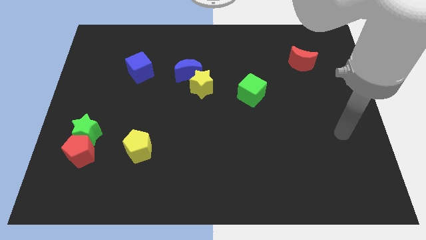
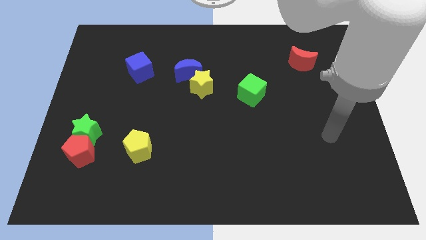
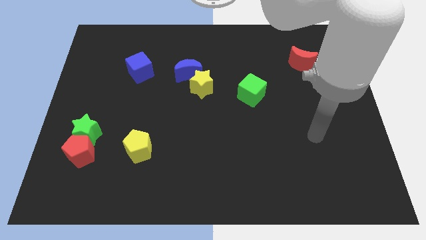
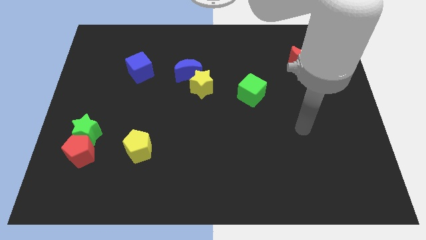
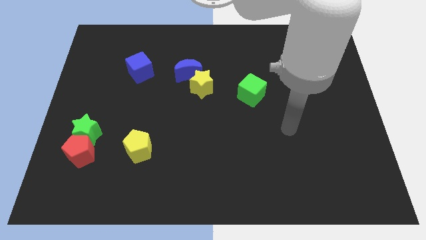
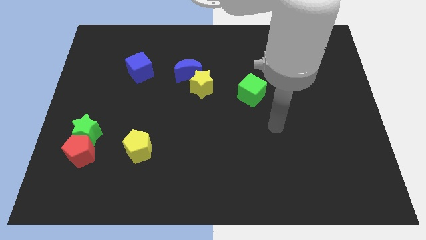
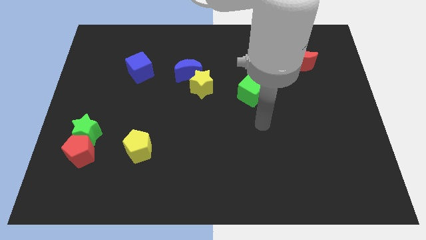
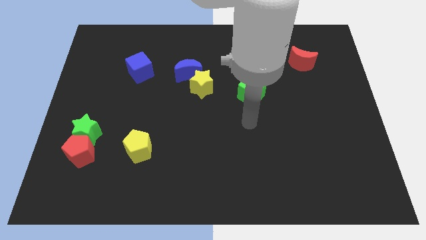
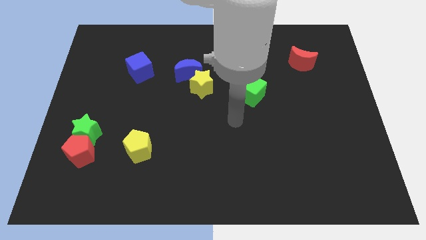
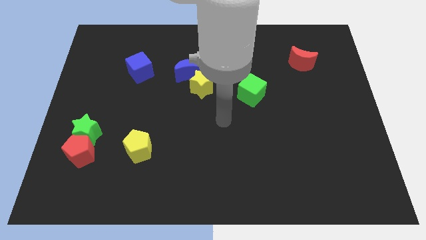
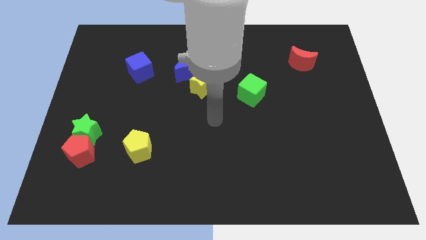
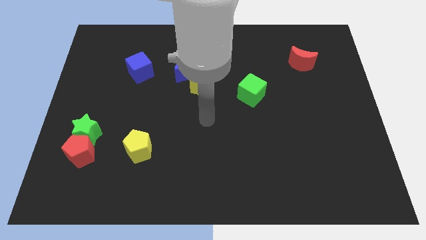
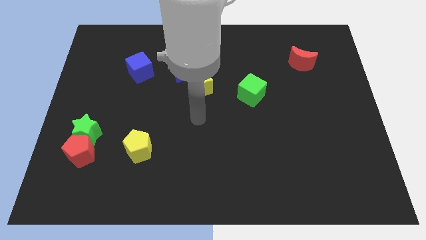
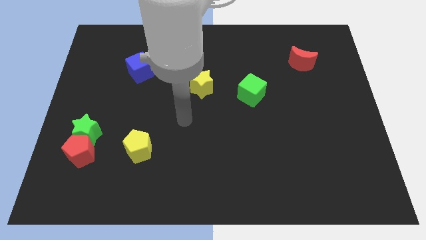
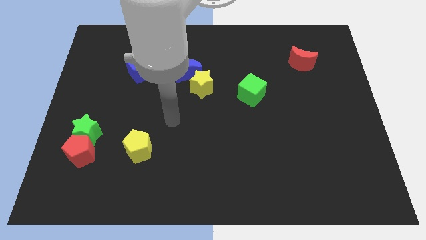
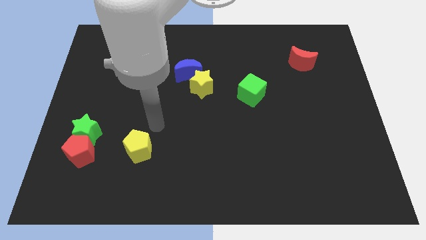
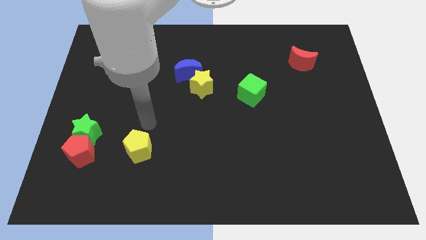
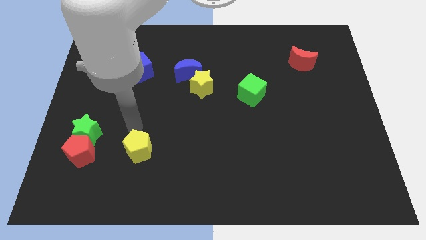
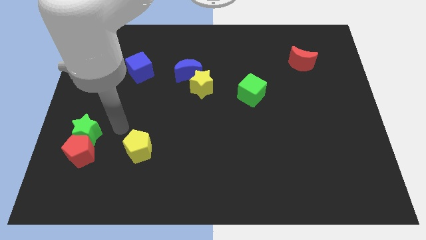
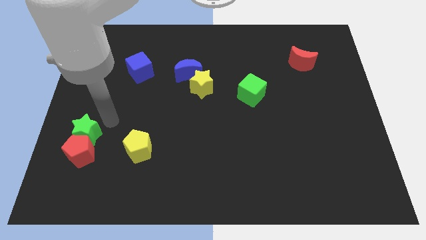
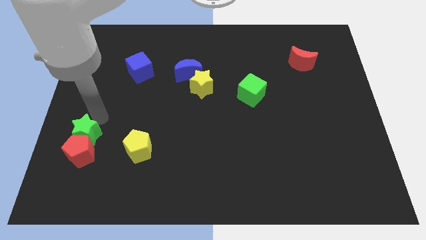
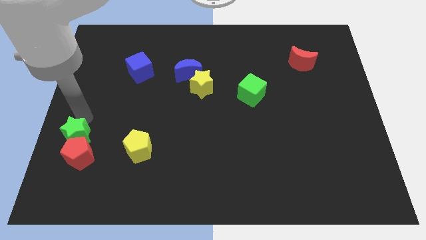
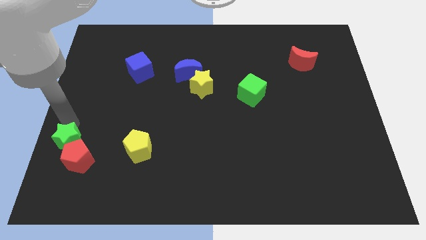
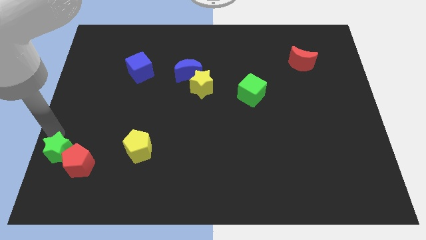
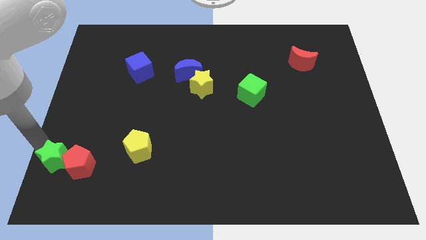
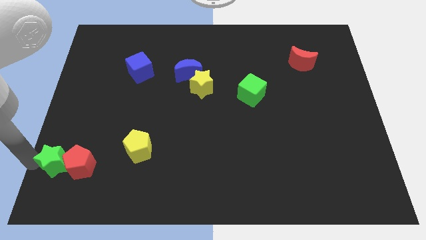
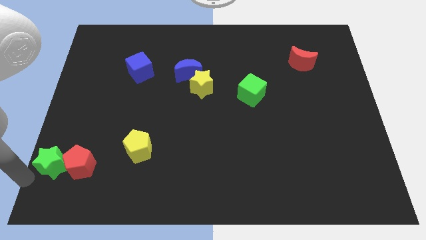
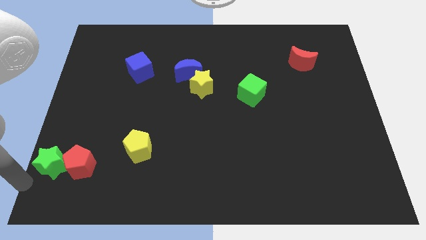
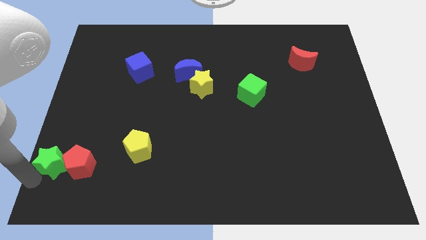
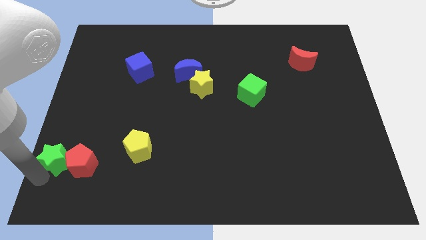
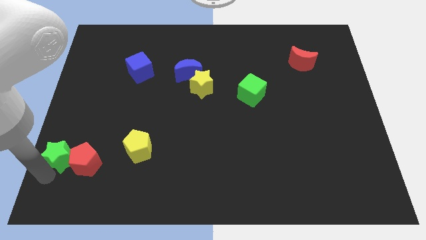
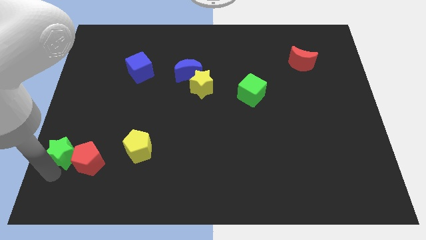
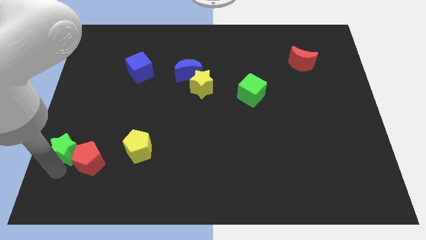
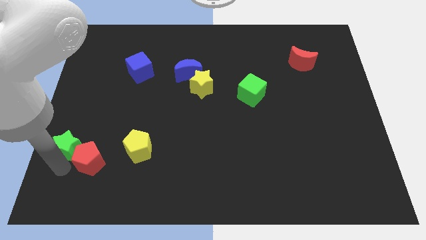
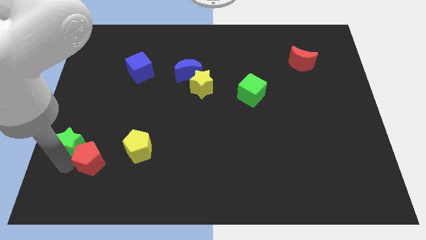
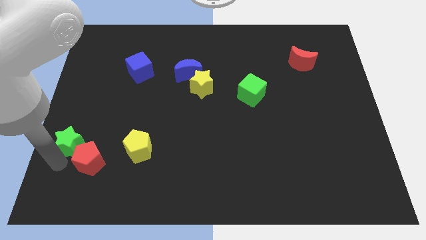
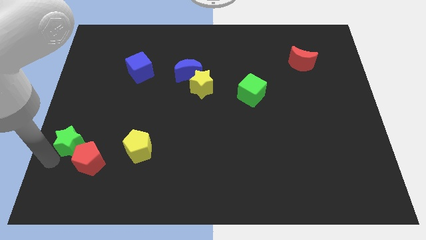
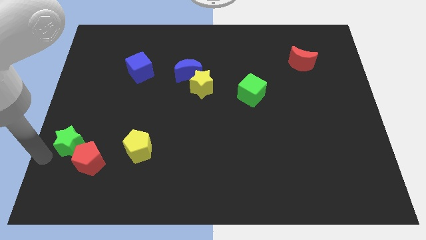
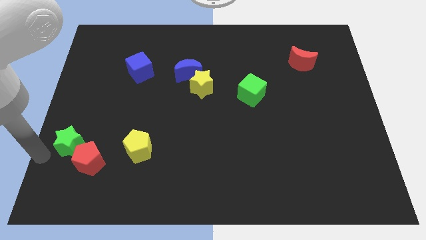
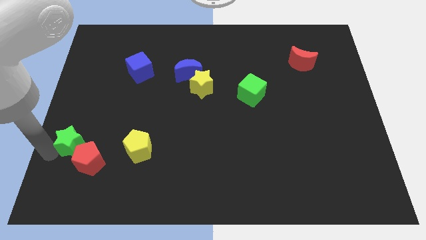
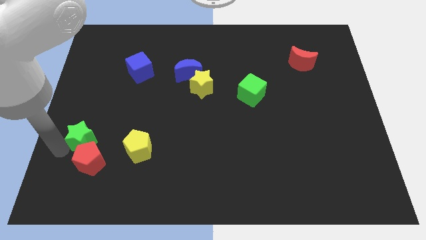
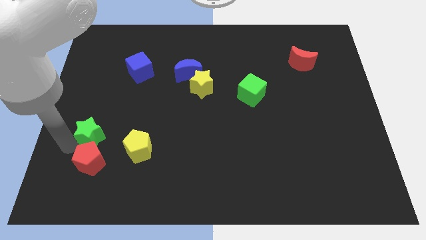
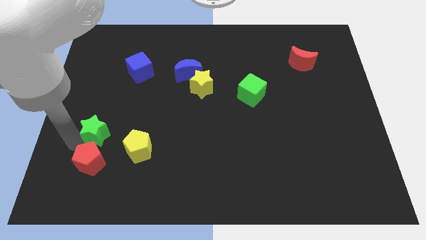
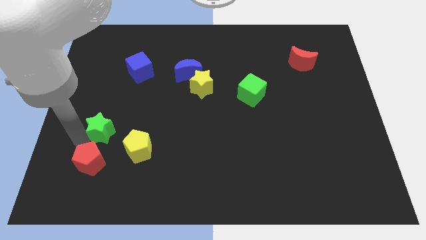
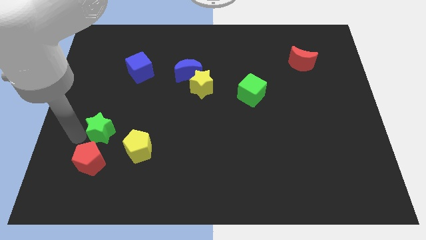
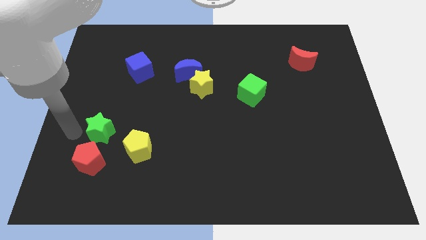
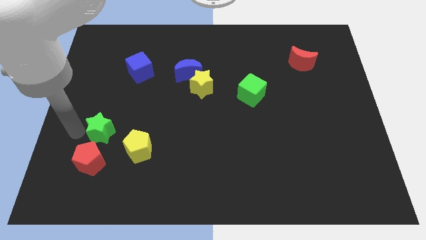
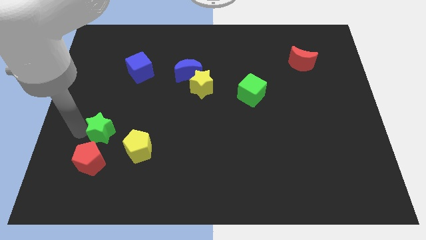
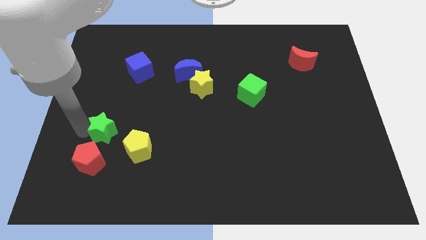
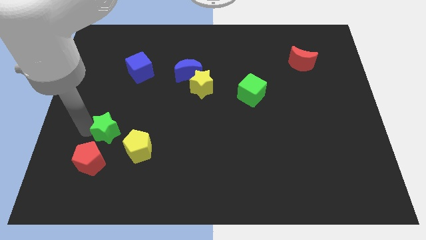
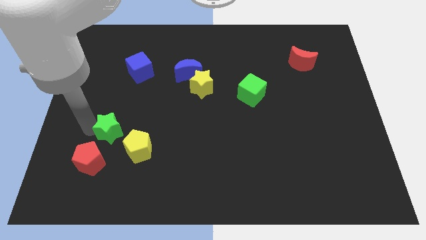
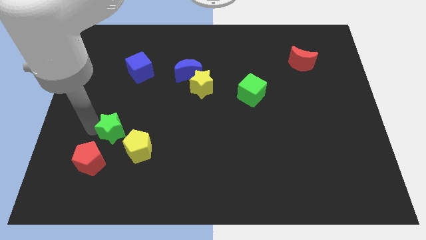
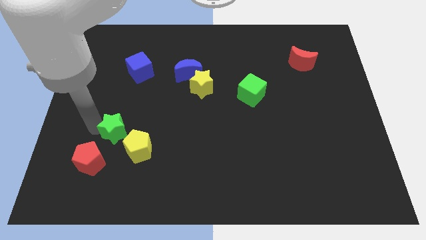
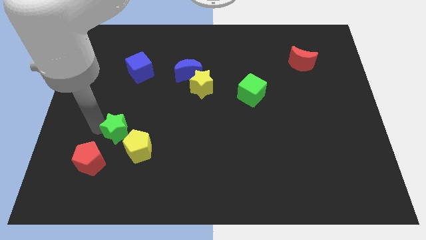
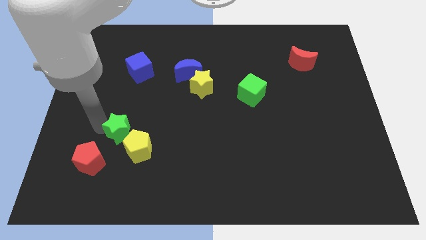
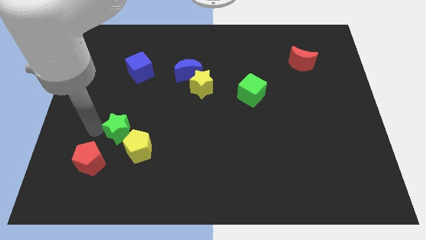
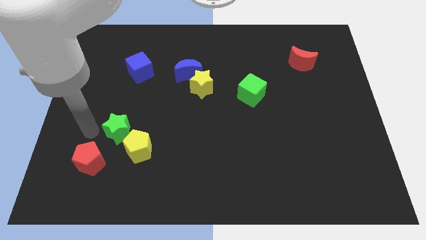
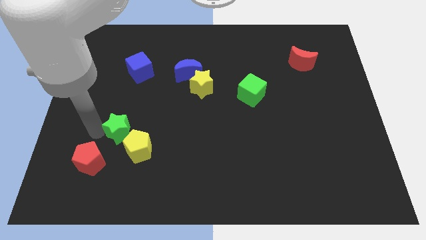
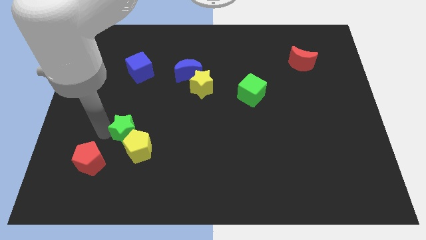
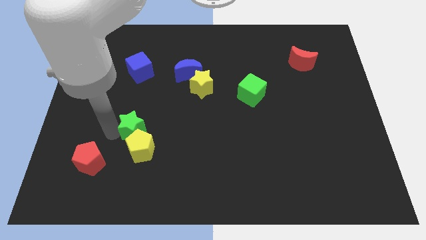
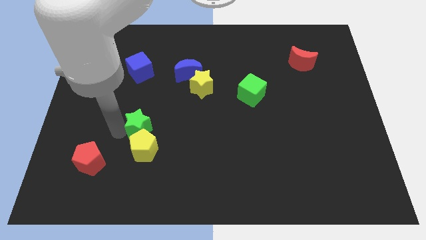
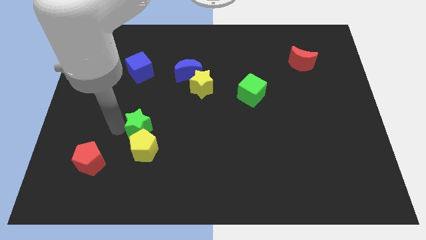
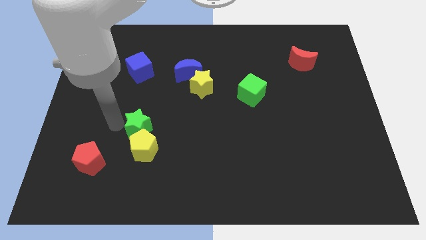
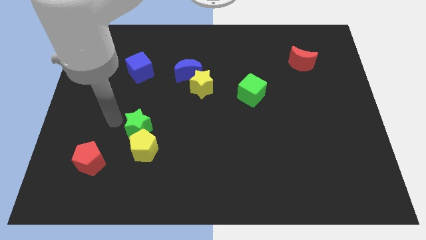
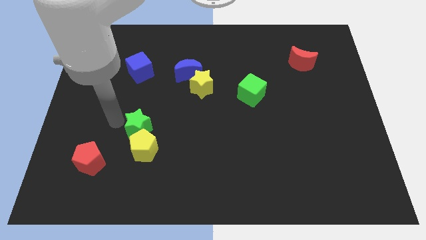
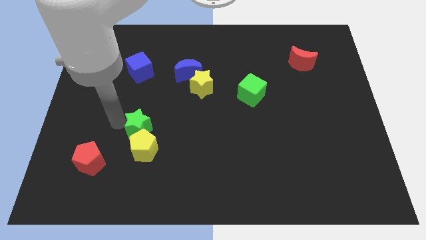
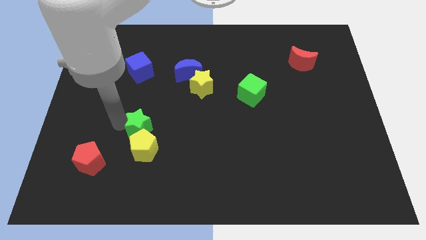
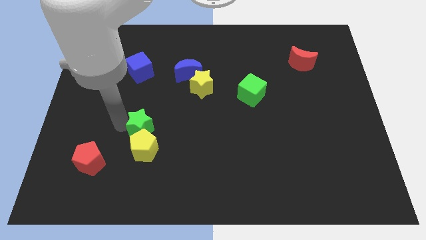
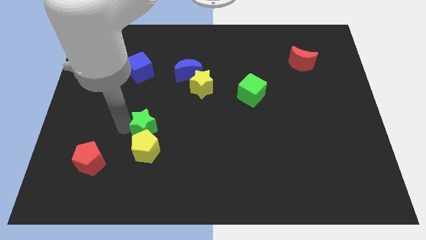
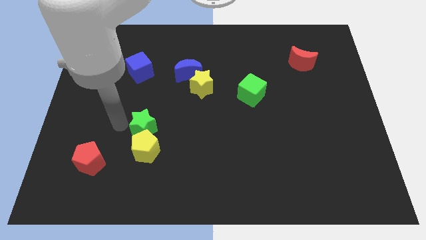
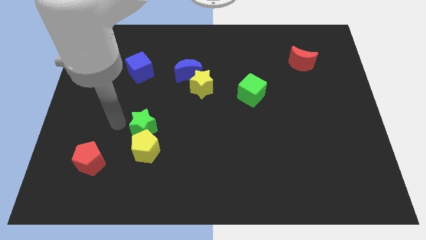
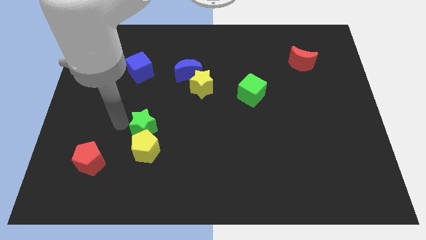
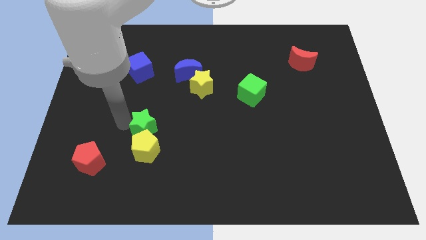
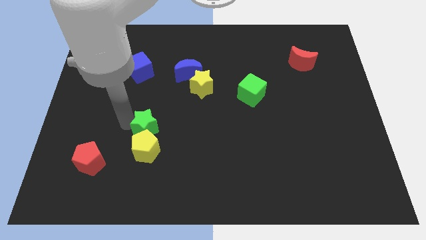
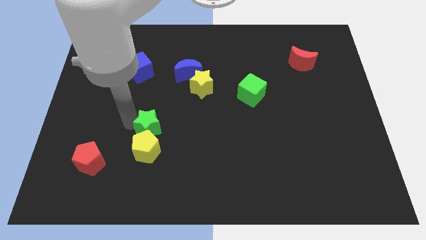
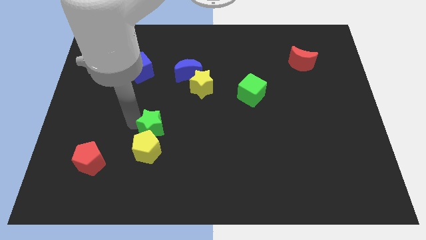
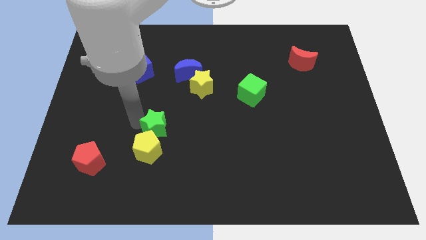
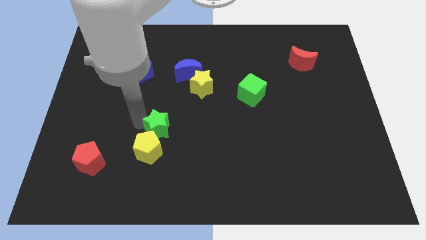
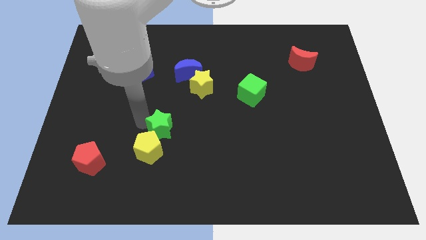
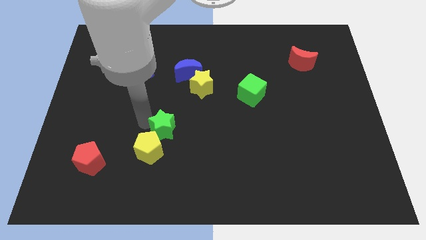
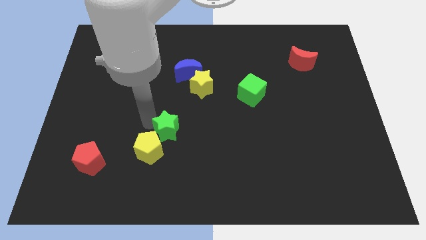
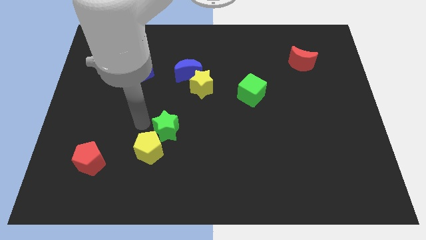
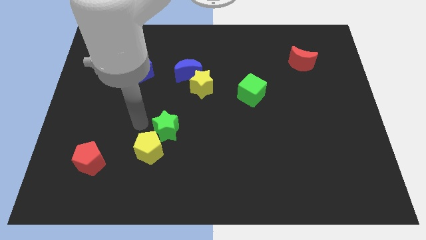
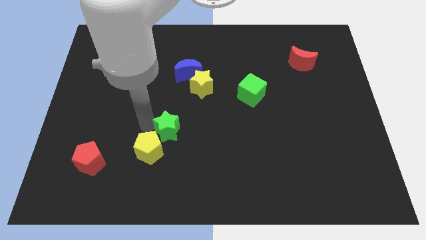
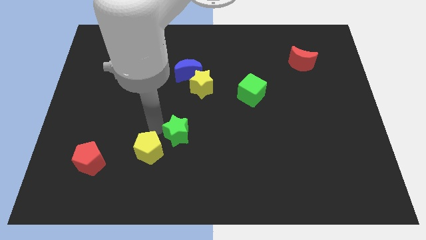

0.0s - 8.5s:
push the green star to the right
